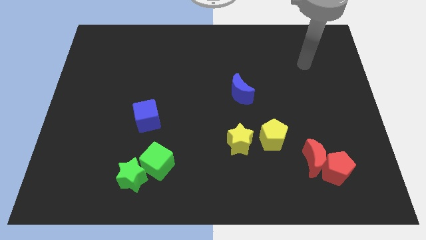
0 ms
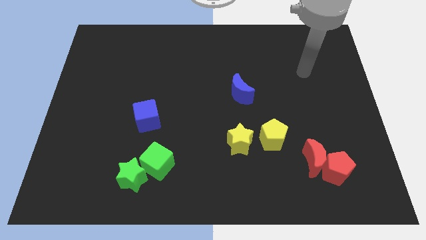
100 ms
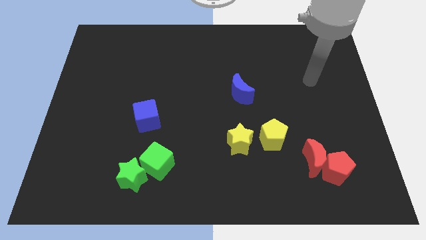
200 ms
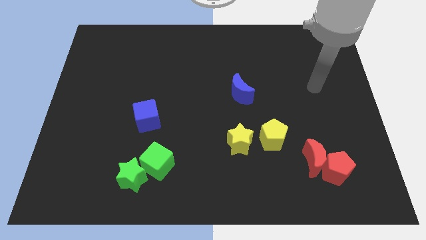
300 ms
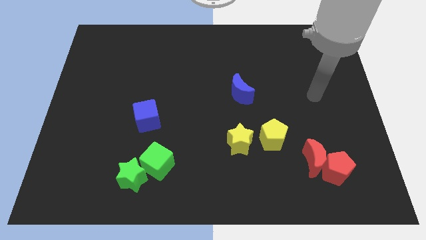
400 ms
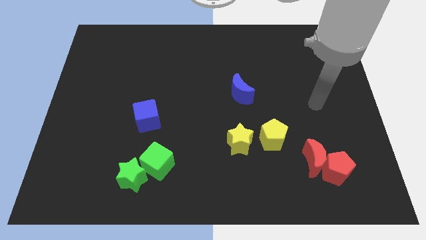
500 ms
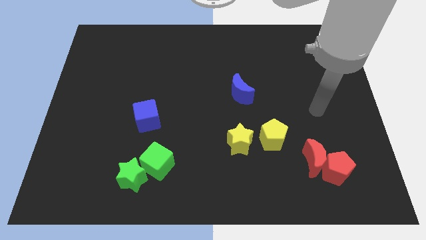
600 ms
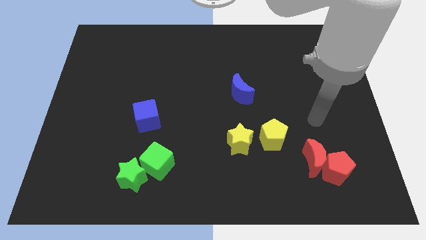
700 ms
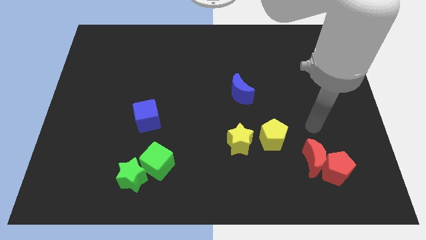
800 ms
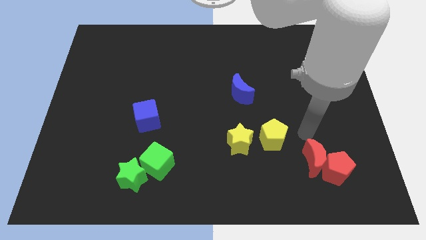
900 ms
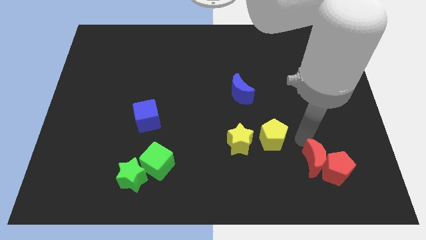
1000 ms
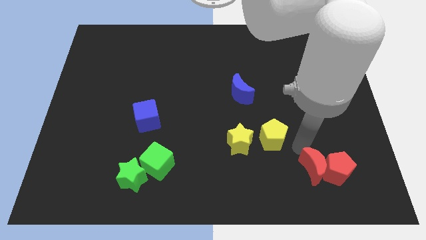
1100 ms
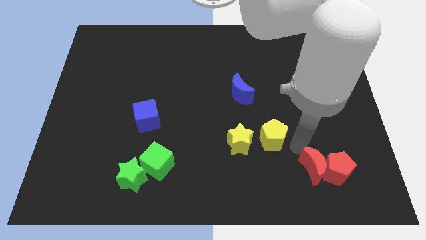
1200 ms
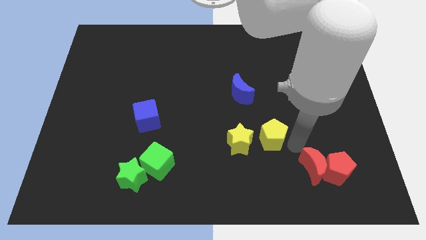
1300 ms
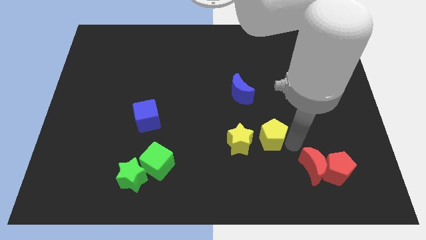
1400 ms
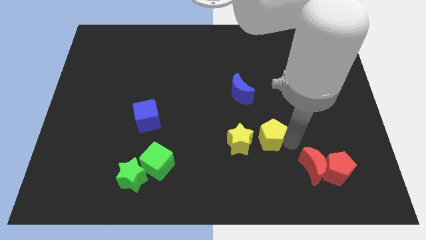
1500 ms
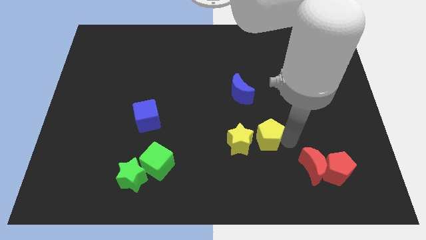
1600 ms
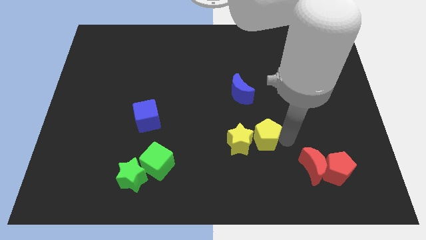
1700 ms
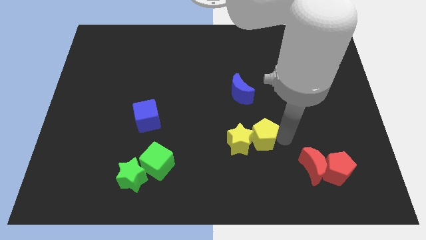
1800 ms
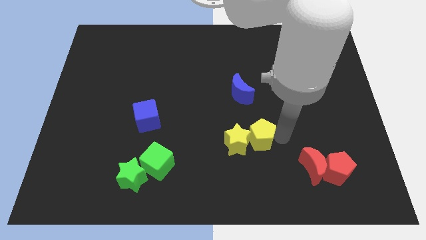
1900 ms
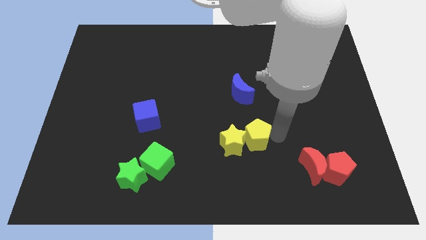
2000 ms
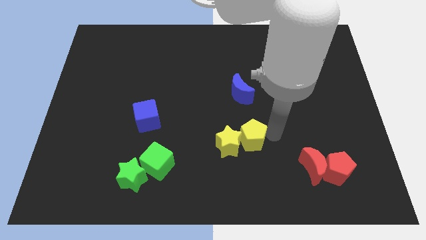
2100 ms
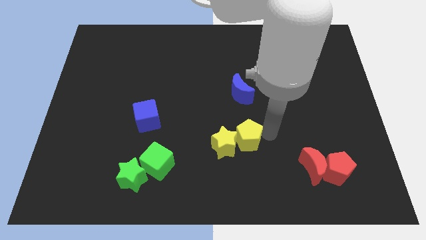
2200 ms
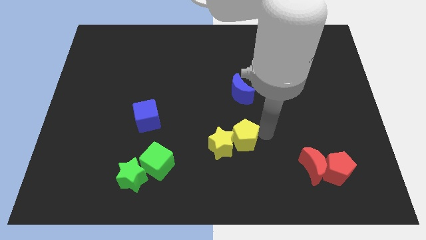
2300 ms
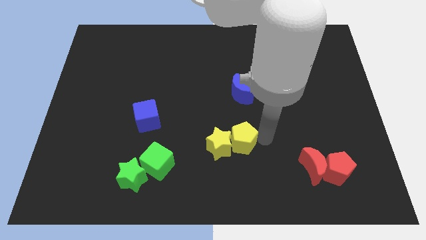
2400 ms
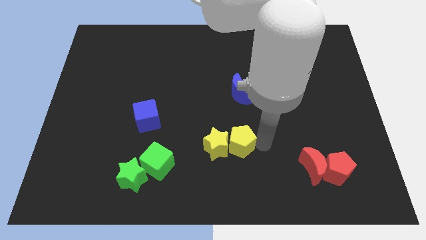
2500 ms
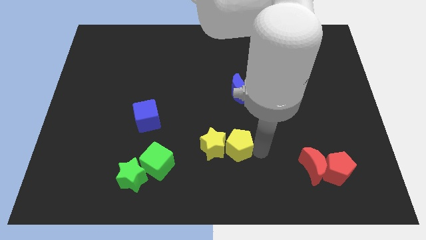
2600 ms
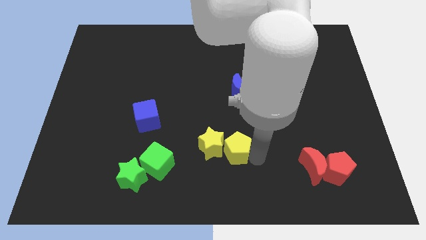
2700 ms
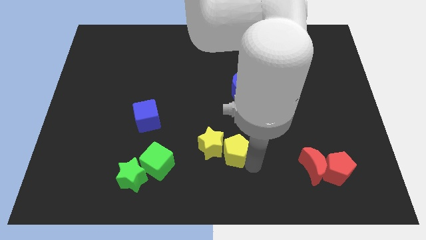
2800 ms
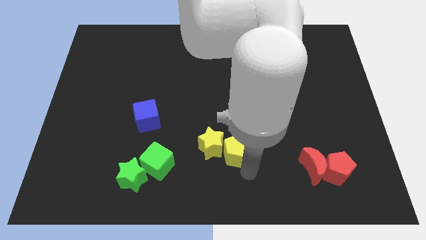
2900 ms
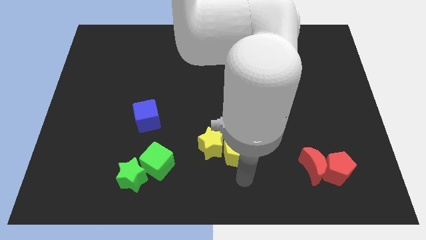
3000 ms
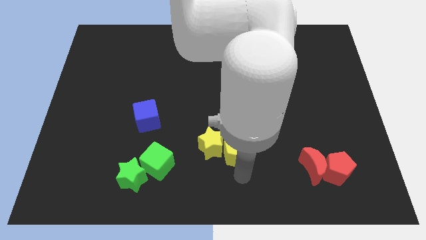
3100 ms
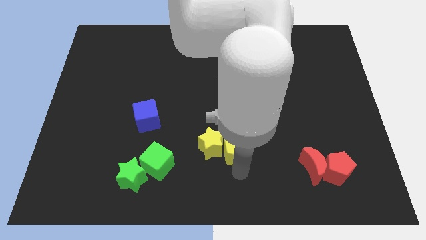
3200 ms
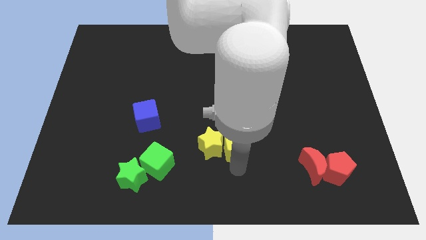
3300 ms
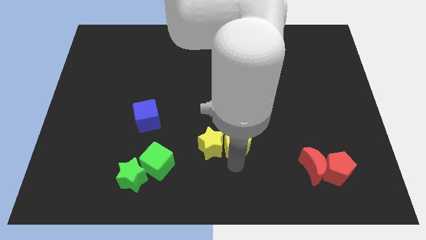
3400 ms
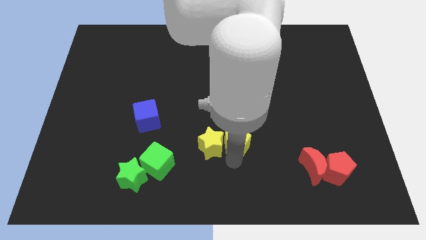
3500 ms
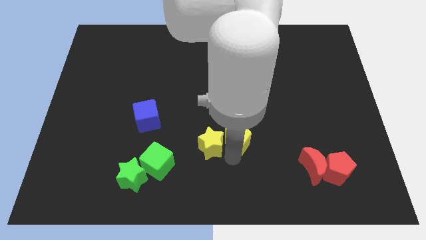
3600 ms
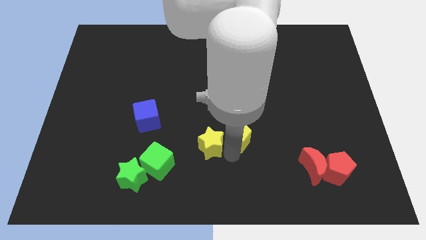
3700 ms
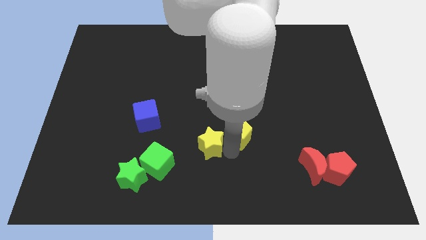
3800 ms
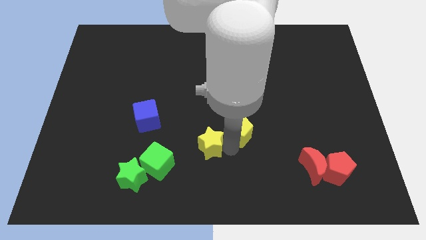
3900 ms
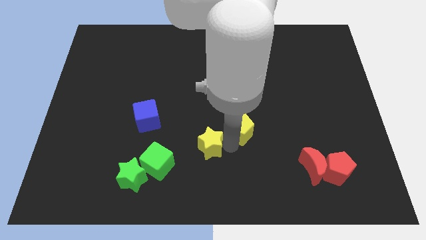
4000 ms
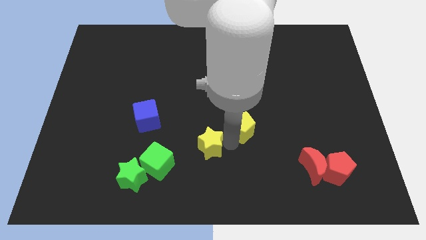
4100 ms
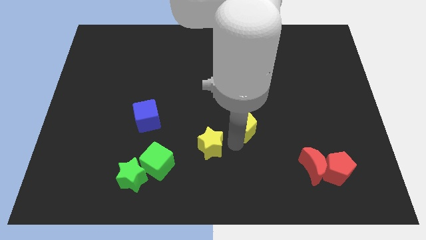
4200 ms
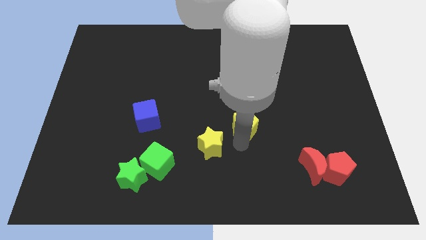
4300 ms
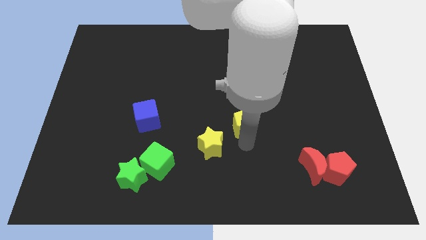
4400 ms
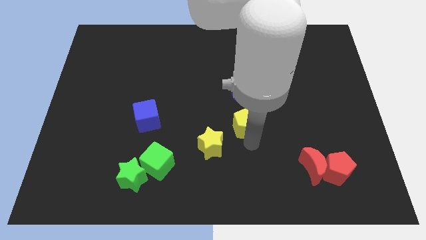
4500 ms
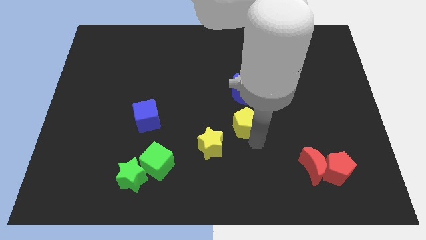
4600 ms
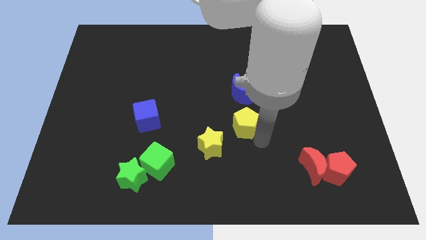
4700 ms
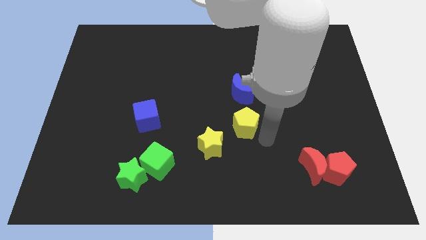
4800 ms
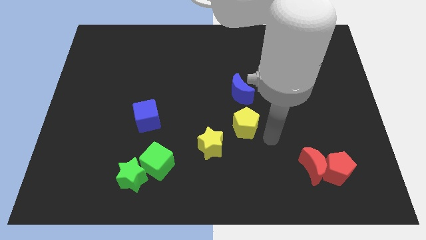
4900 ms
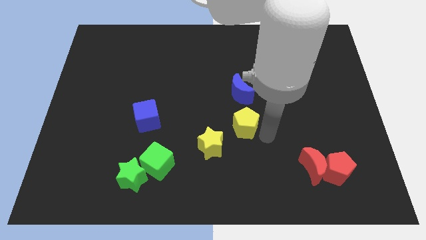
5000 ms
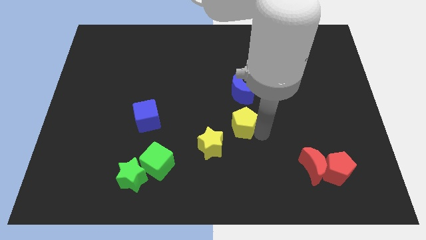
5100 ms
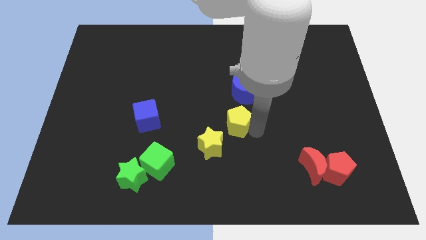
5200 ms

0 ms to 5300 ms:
slide the yellow pentagon up and then to the left somewhat

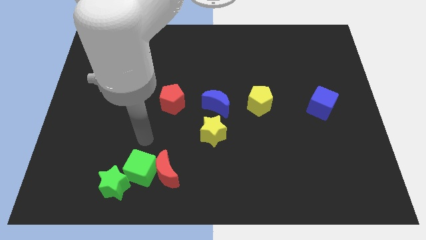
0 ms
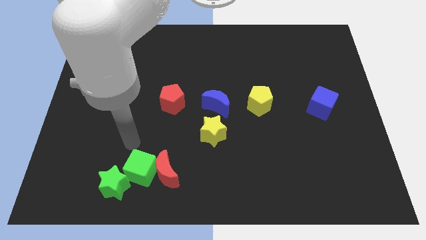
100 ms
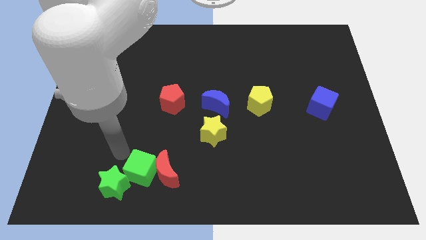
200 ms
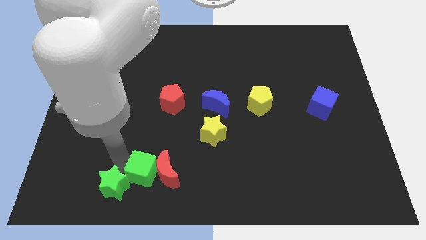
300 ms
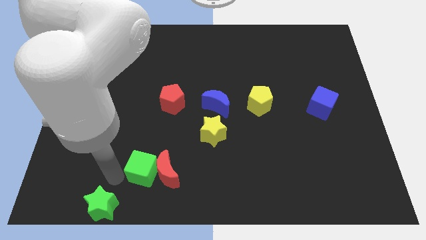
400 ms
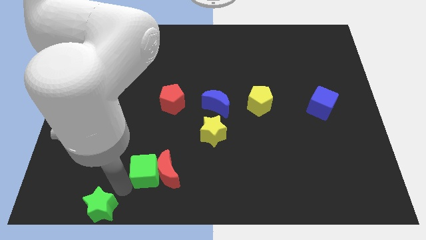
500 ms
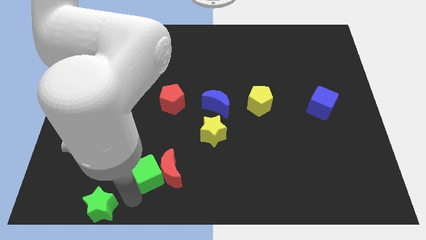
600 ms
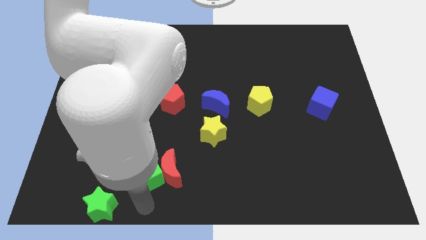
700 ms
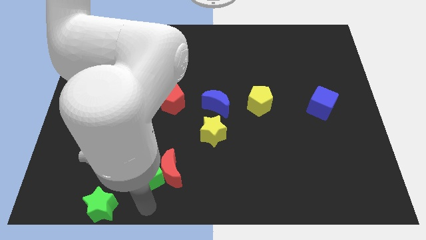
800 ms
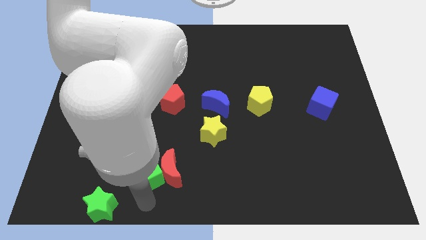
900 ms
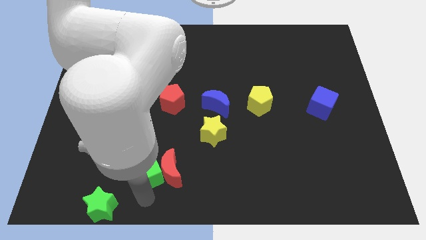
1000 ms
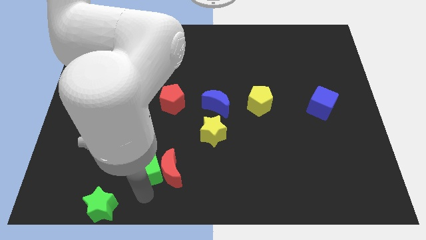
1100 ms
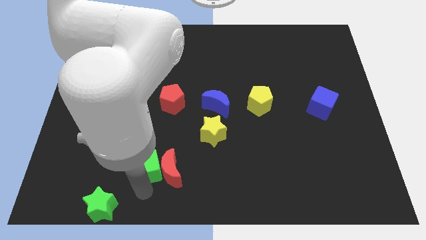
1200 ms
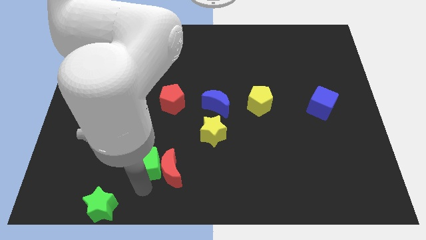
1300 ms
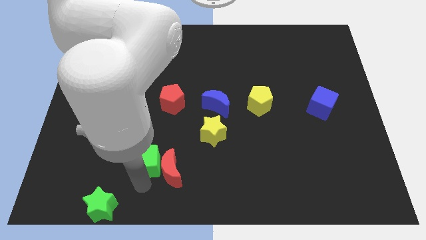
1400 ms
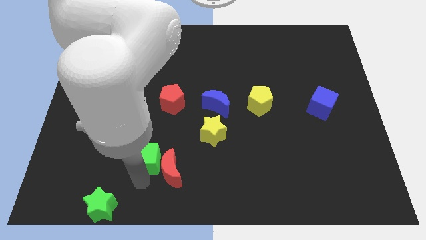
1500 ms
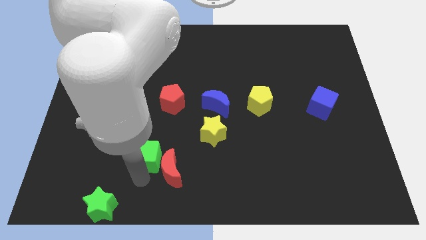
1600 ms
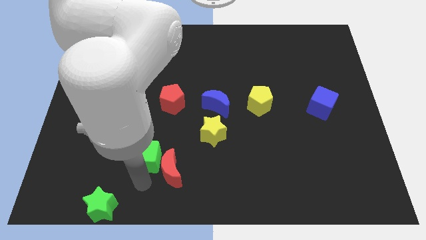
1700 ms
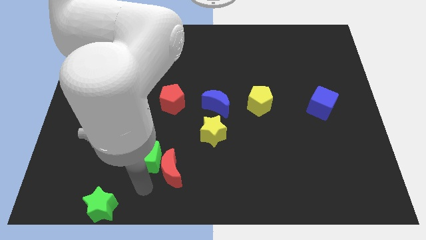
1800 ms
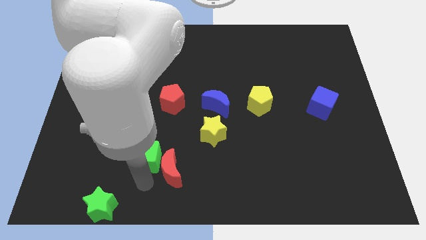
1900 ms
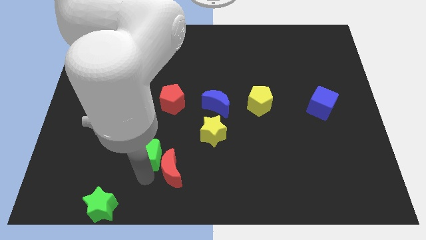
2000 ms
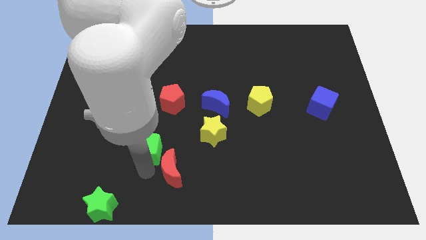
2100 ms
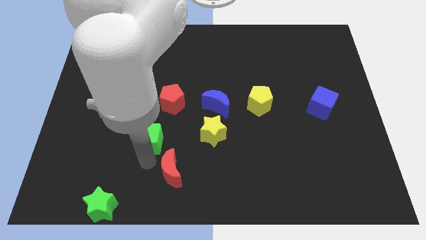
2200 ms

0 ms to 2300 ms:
slide the green cube somewhat up

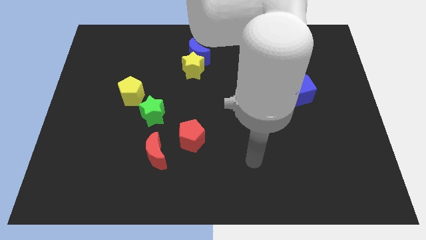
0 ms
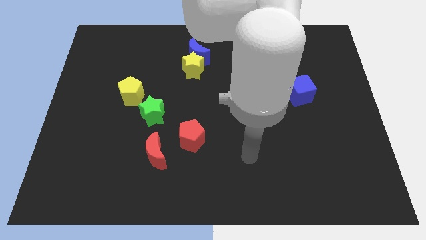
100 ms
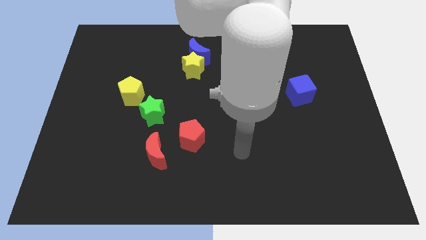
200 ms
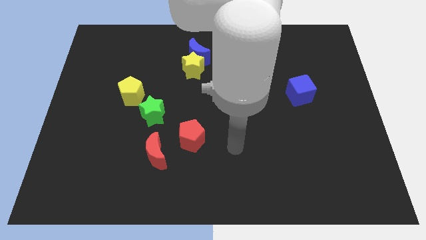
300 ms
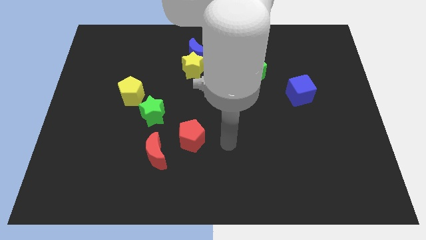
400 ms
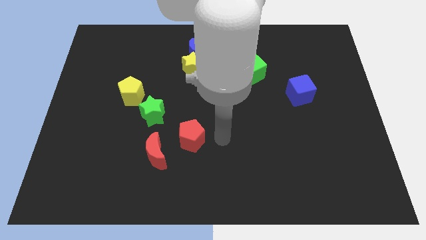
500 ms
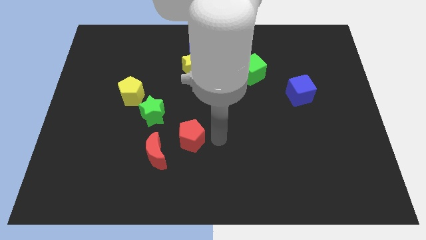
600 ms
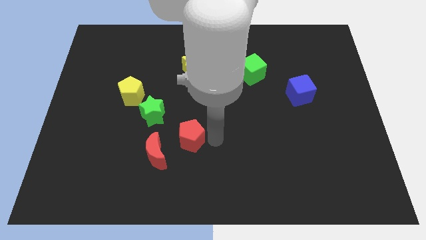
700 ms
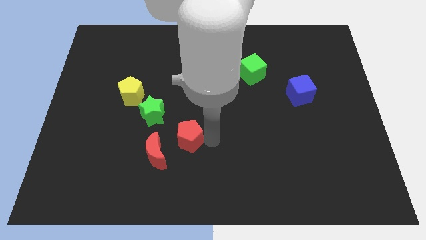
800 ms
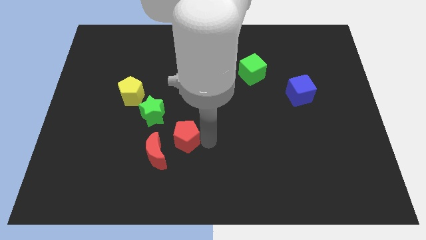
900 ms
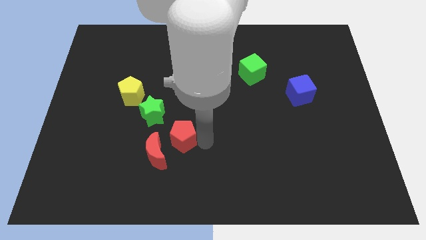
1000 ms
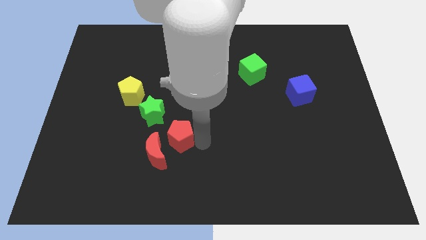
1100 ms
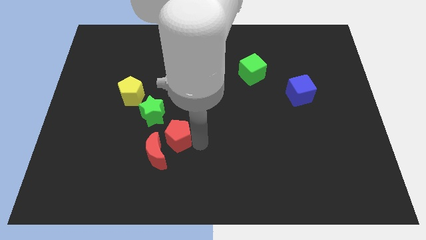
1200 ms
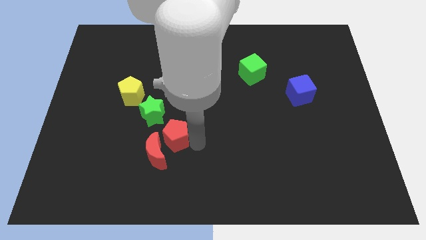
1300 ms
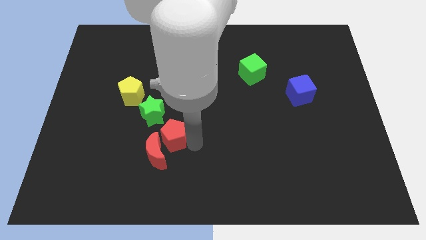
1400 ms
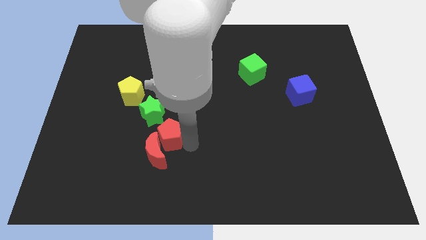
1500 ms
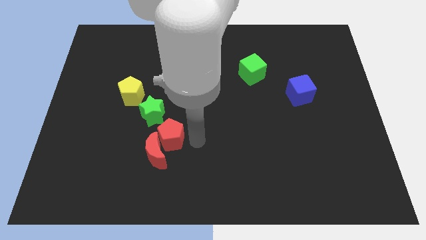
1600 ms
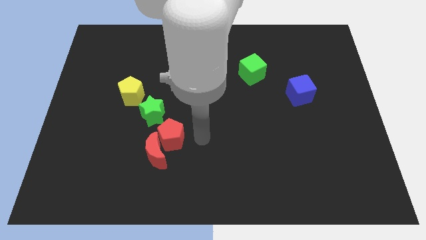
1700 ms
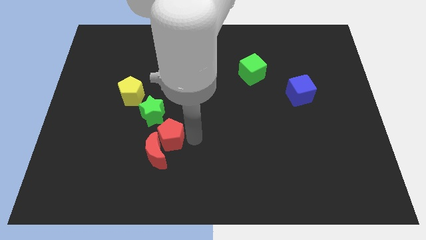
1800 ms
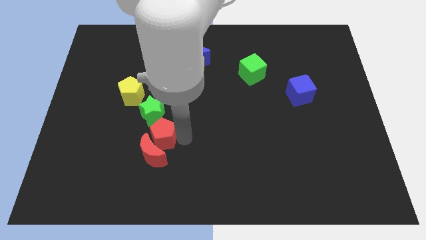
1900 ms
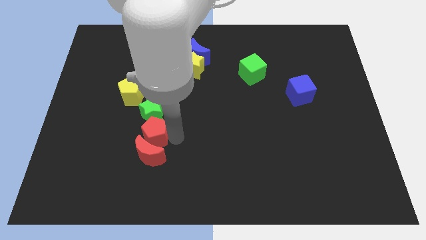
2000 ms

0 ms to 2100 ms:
slide the red pentagon to the left somewhat
